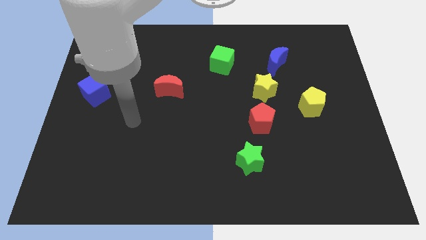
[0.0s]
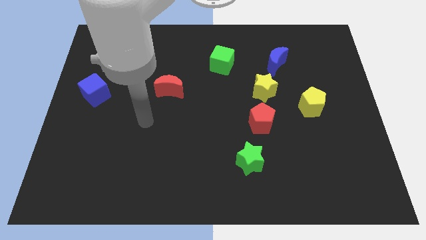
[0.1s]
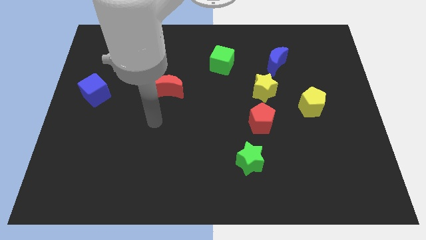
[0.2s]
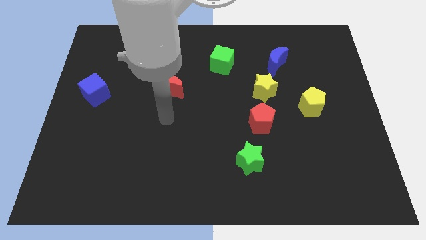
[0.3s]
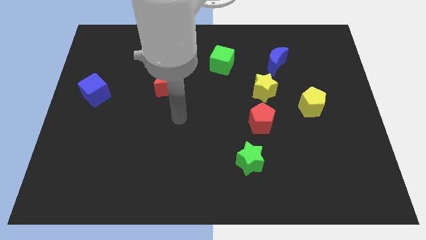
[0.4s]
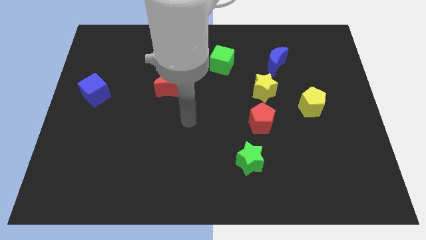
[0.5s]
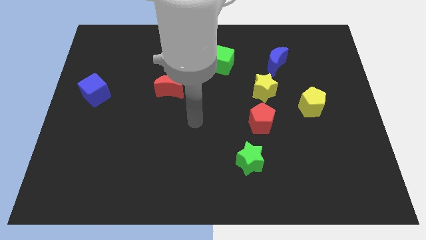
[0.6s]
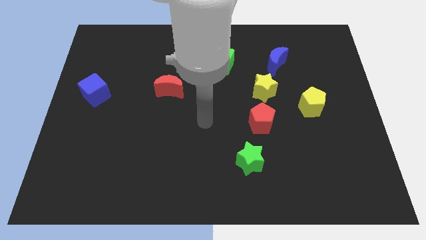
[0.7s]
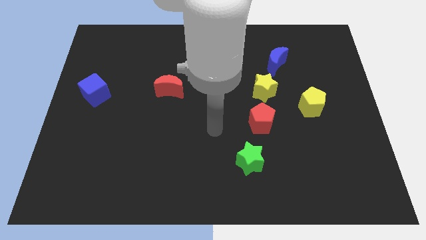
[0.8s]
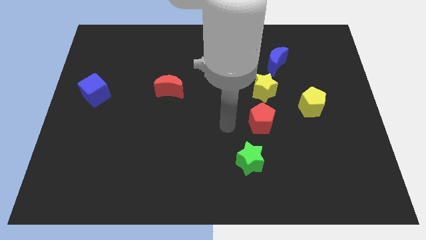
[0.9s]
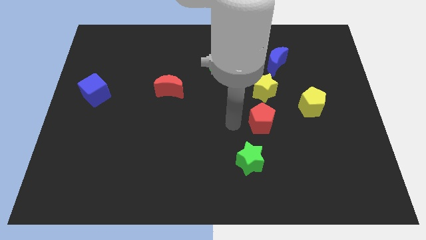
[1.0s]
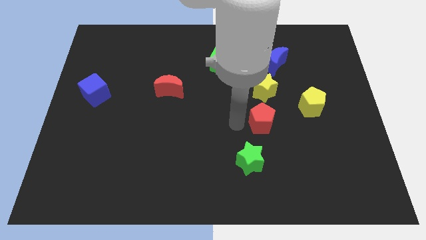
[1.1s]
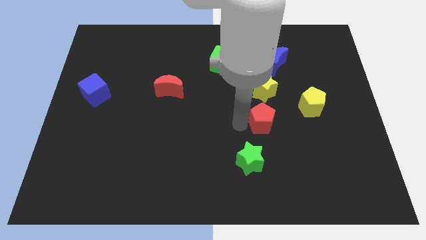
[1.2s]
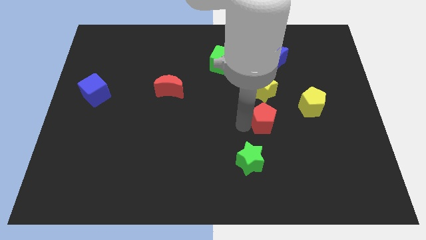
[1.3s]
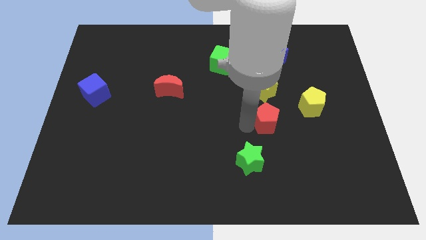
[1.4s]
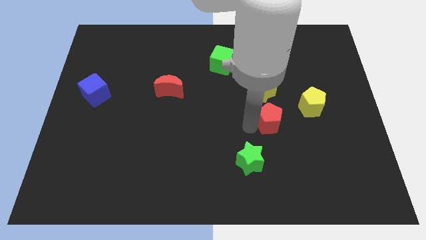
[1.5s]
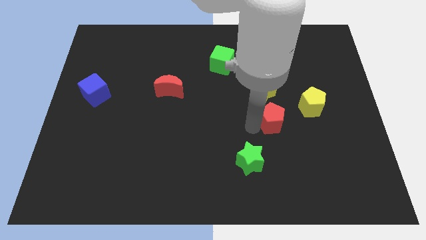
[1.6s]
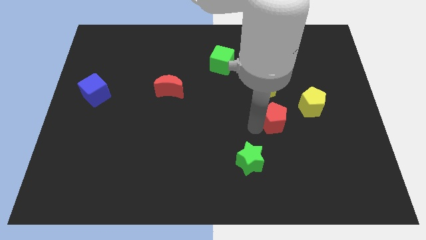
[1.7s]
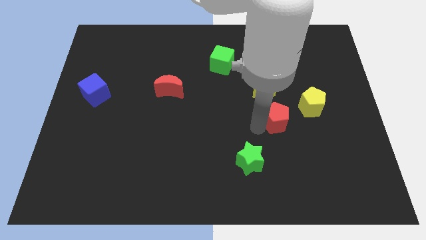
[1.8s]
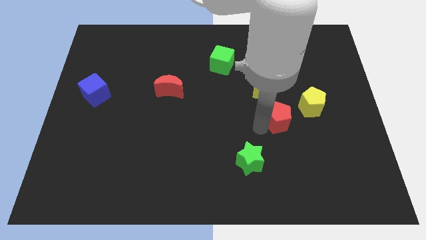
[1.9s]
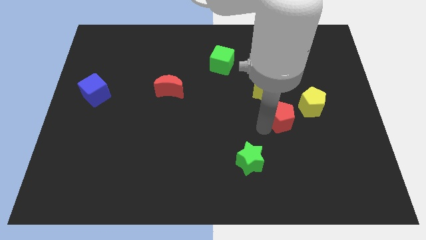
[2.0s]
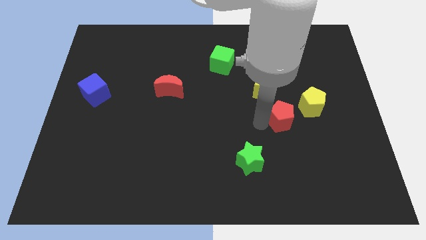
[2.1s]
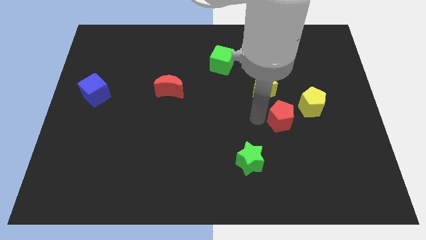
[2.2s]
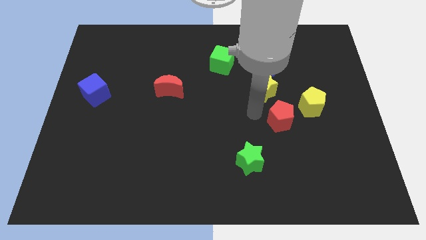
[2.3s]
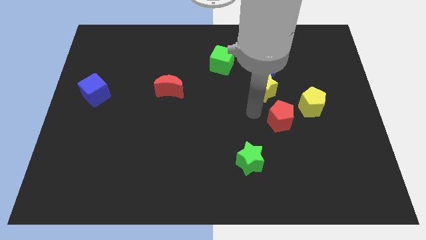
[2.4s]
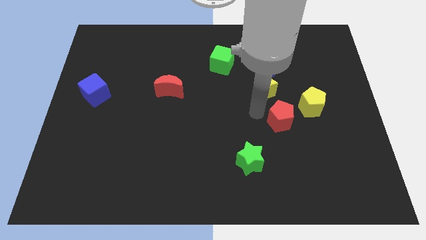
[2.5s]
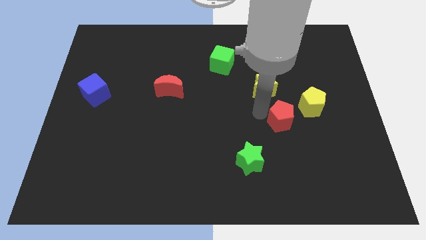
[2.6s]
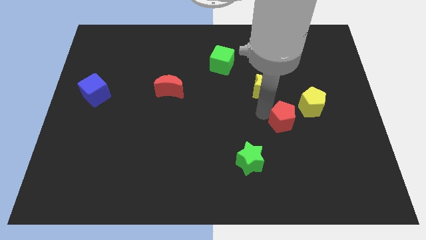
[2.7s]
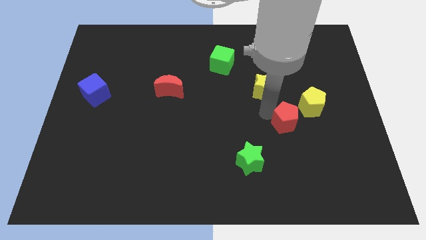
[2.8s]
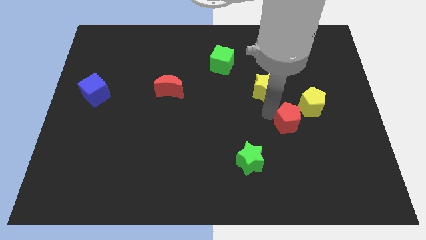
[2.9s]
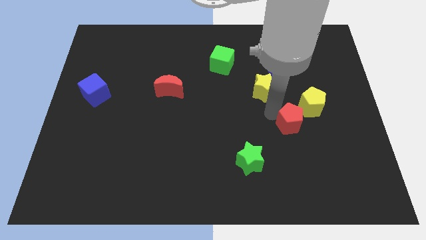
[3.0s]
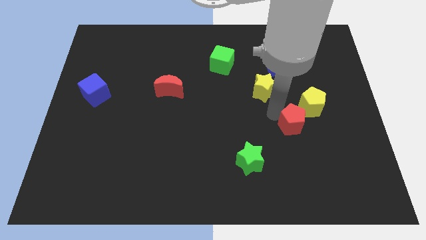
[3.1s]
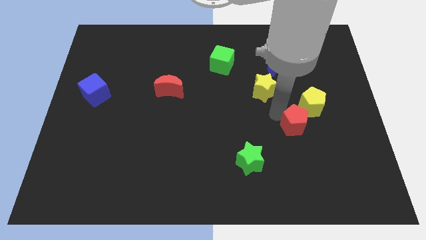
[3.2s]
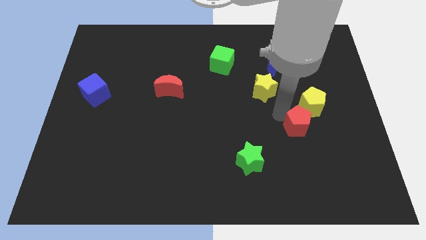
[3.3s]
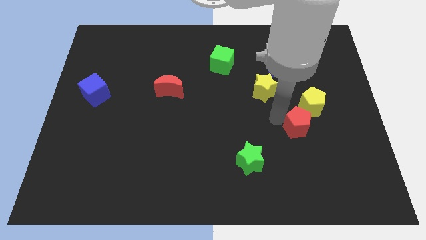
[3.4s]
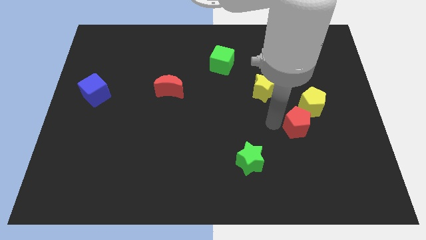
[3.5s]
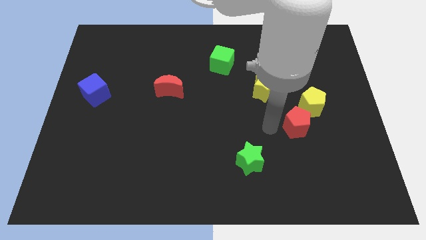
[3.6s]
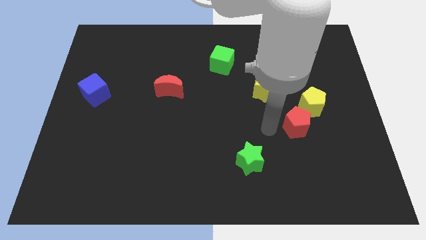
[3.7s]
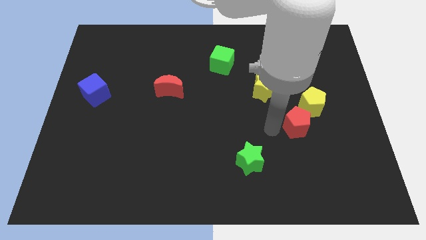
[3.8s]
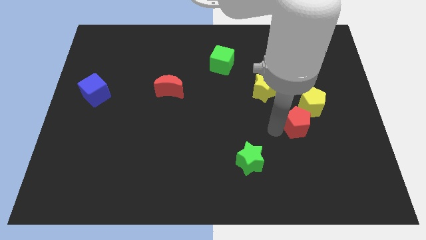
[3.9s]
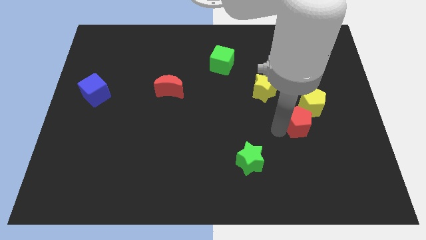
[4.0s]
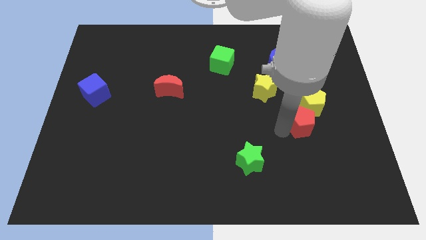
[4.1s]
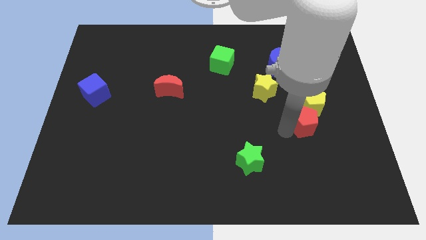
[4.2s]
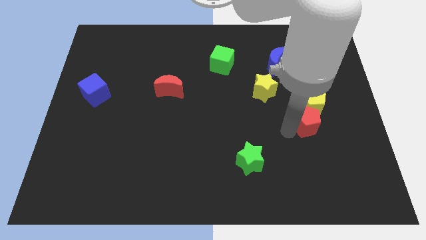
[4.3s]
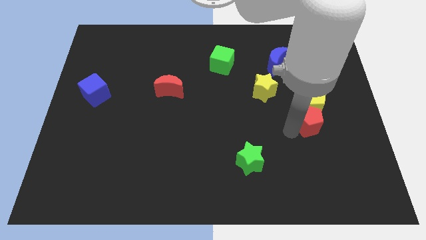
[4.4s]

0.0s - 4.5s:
push the red pentagon diagonally down and to the right of the yellow pentagon

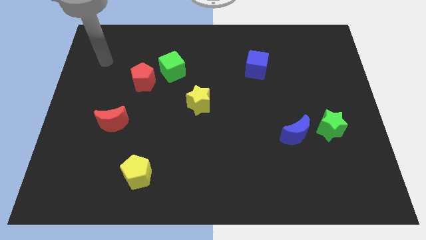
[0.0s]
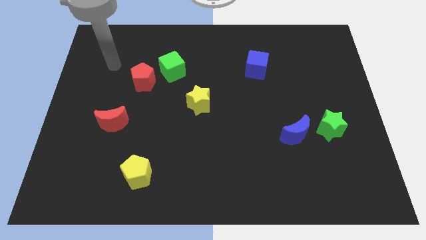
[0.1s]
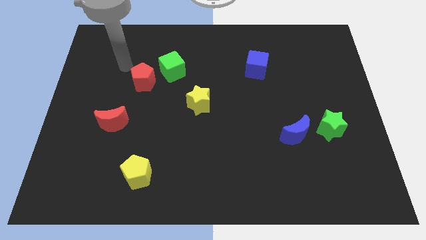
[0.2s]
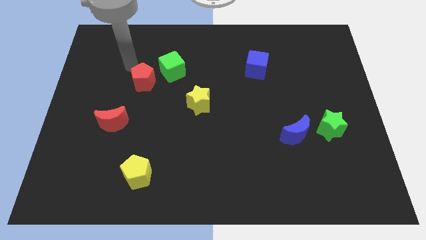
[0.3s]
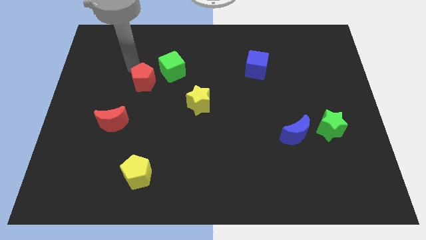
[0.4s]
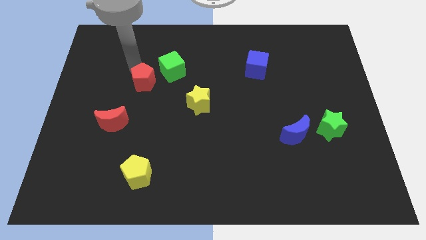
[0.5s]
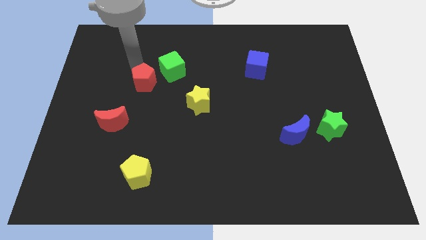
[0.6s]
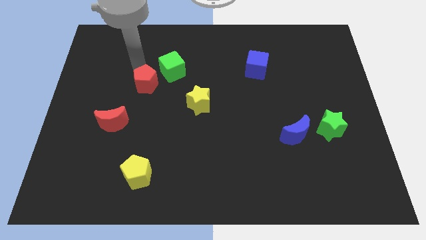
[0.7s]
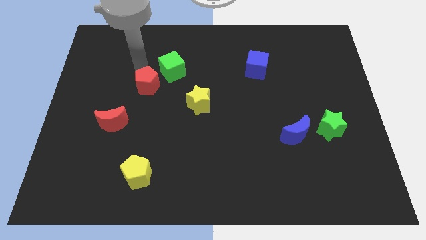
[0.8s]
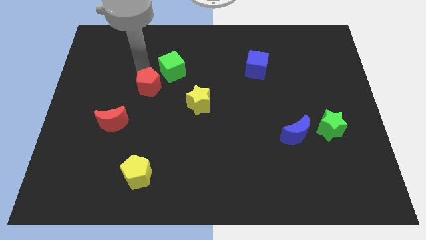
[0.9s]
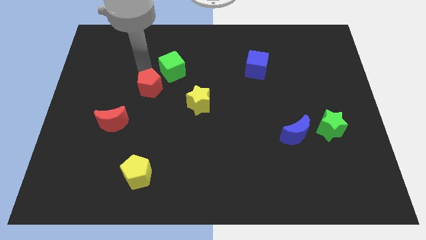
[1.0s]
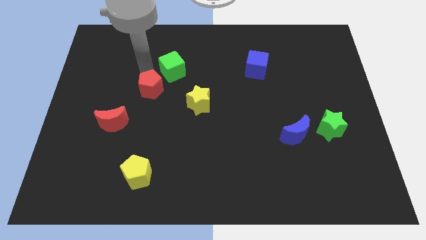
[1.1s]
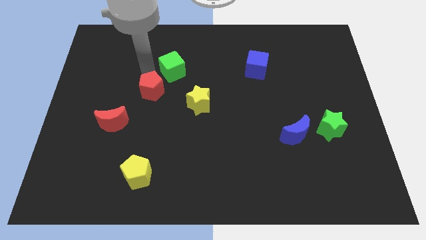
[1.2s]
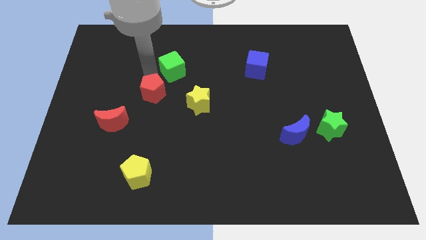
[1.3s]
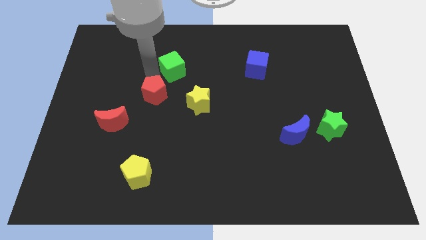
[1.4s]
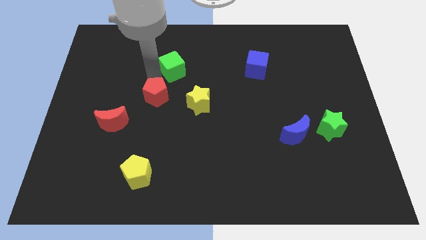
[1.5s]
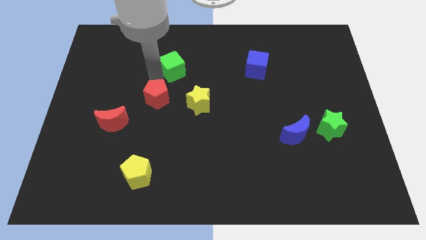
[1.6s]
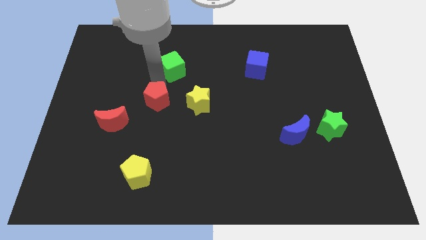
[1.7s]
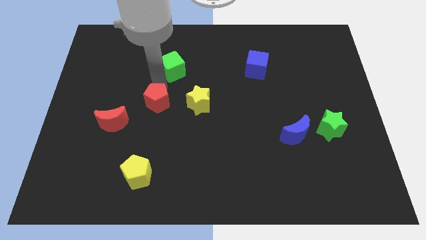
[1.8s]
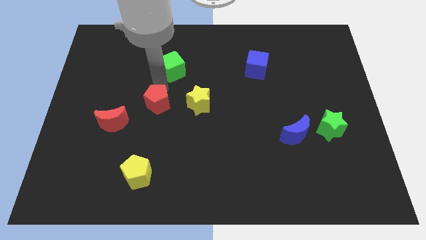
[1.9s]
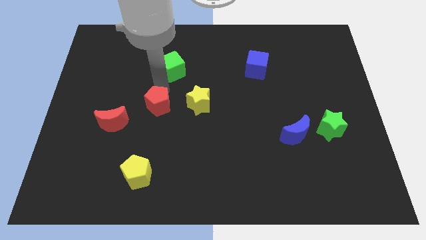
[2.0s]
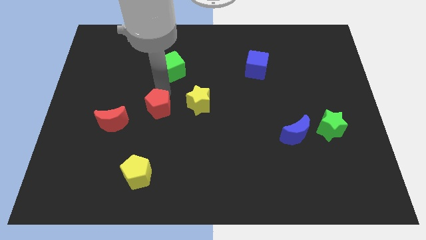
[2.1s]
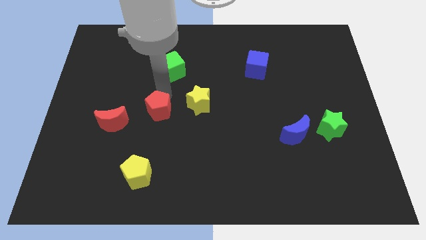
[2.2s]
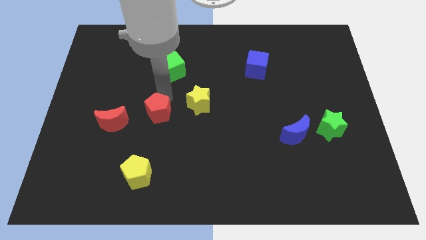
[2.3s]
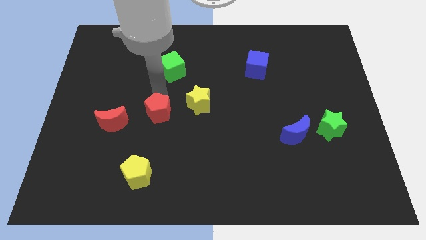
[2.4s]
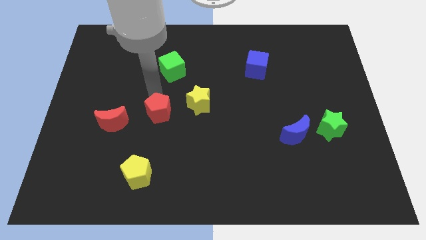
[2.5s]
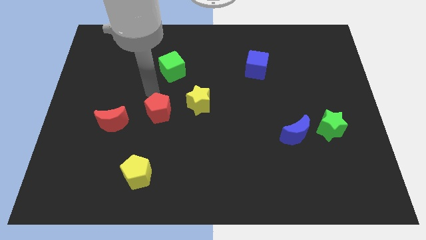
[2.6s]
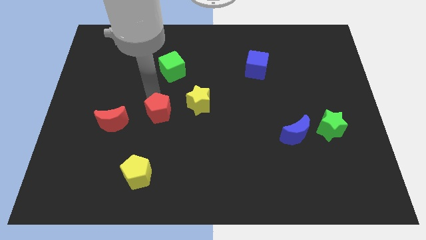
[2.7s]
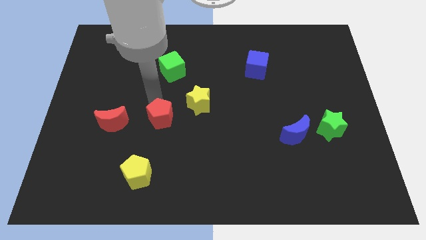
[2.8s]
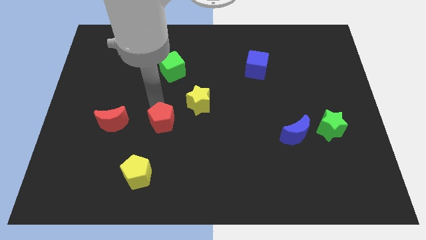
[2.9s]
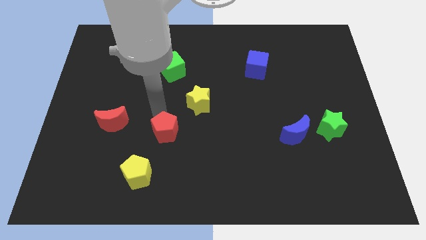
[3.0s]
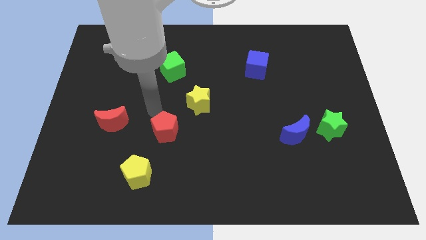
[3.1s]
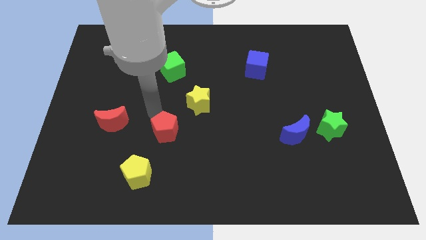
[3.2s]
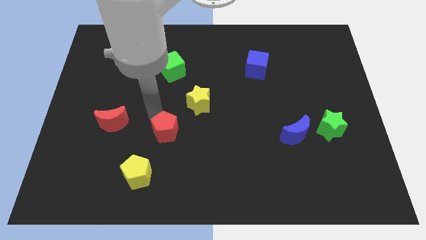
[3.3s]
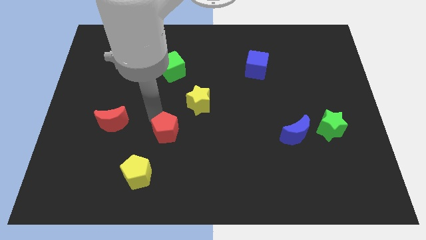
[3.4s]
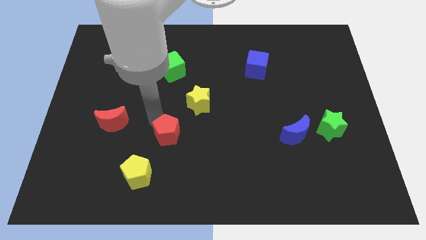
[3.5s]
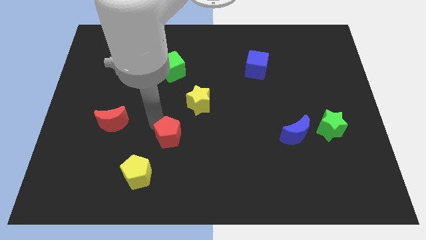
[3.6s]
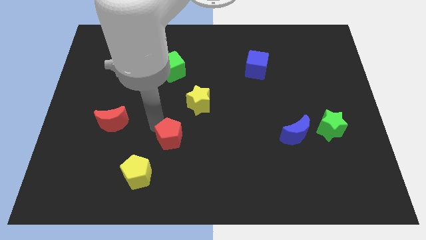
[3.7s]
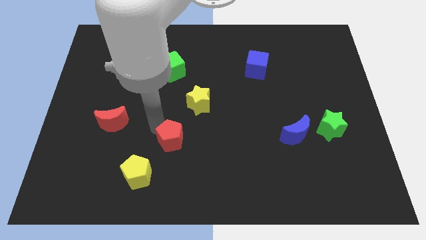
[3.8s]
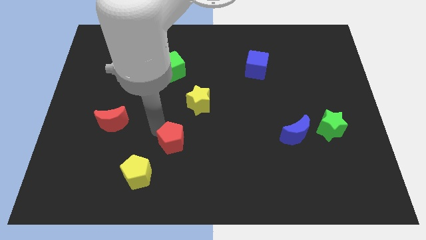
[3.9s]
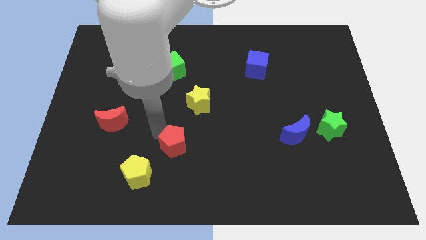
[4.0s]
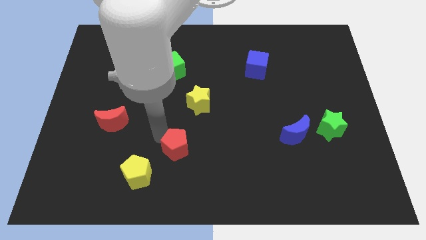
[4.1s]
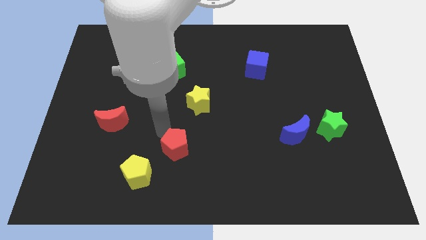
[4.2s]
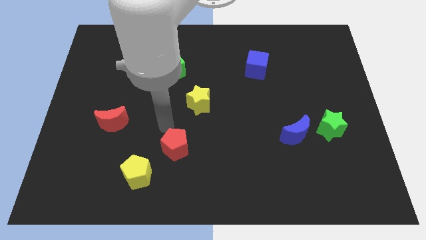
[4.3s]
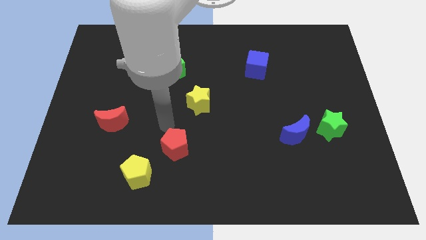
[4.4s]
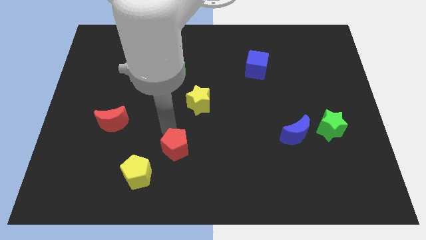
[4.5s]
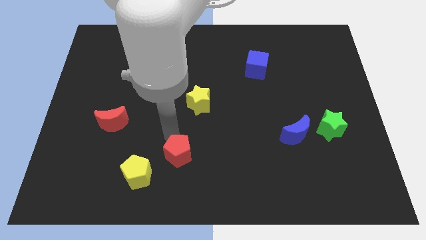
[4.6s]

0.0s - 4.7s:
move the red pentagon just right of the yellow pentagon
